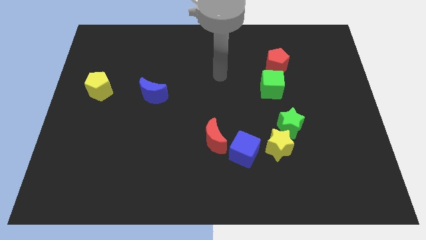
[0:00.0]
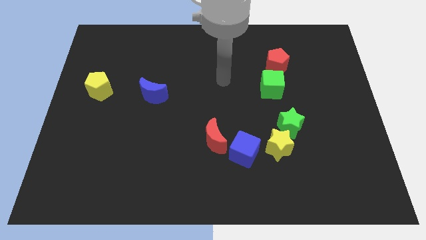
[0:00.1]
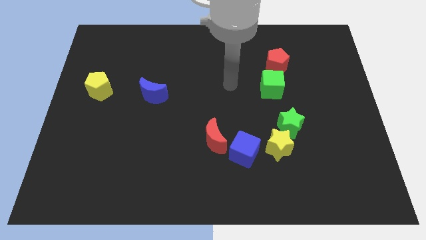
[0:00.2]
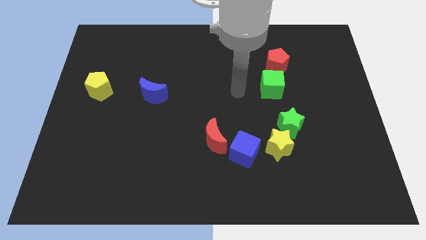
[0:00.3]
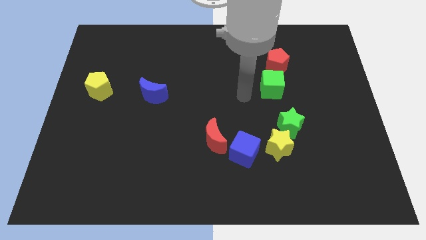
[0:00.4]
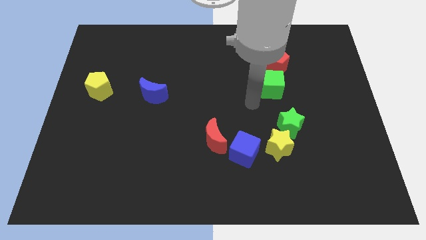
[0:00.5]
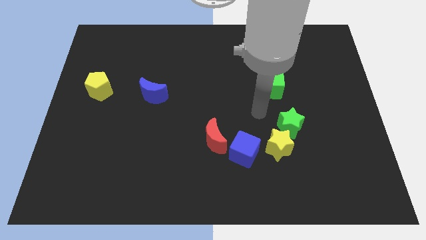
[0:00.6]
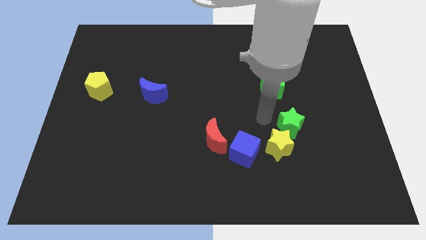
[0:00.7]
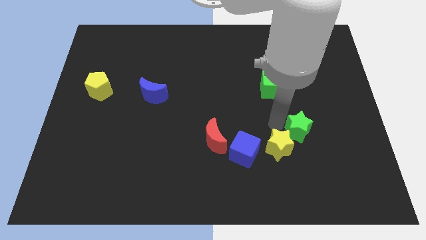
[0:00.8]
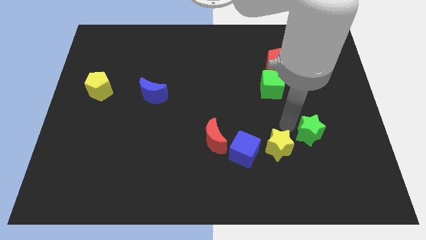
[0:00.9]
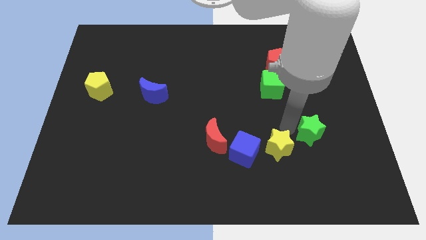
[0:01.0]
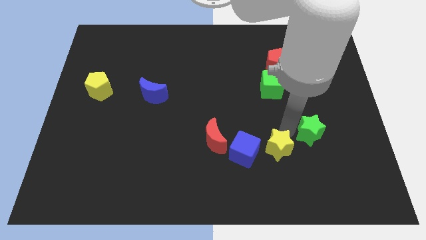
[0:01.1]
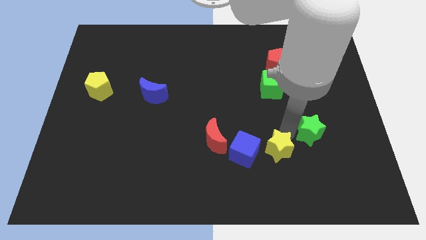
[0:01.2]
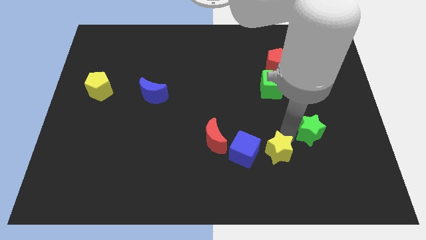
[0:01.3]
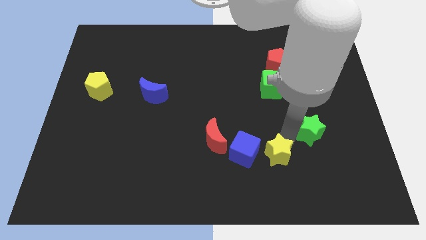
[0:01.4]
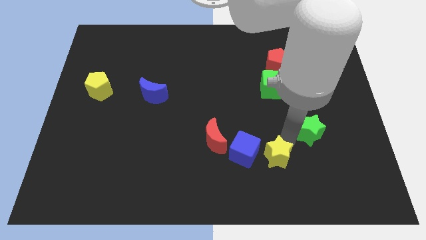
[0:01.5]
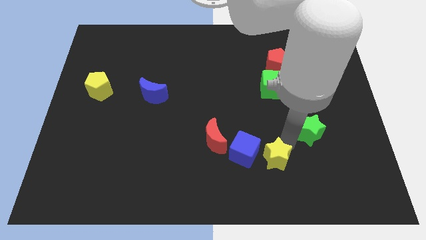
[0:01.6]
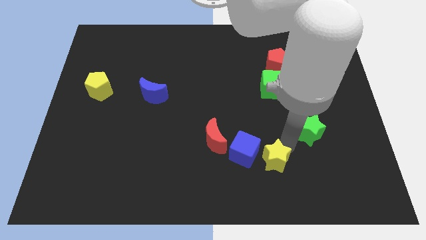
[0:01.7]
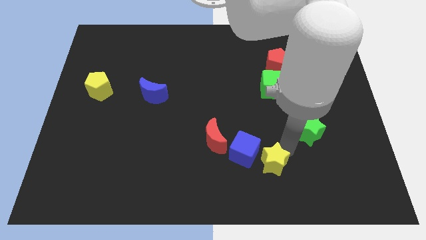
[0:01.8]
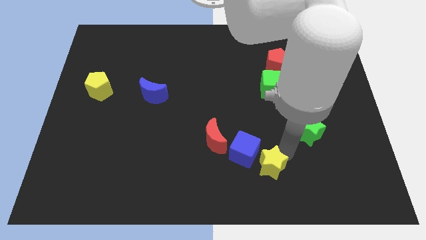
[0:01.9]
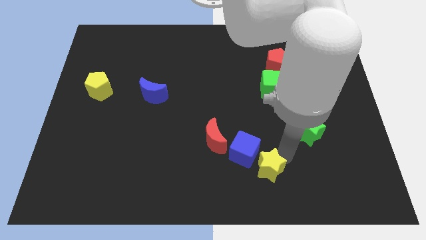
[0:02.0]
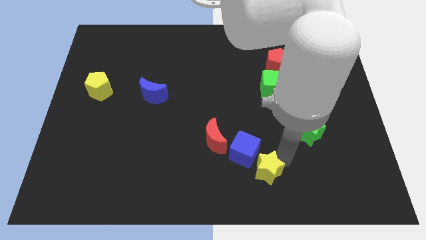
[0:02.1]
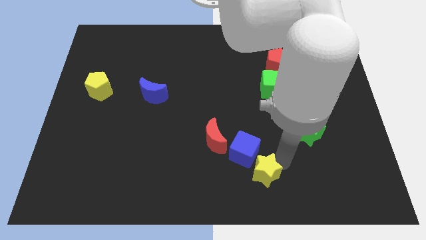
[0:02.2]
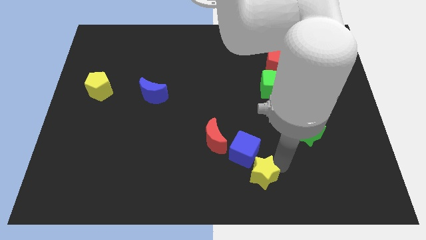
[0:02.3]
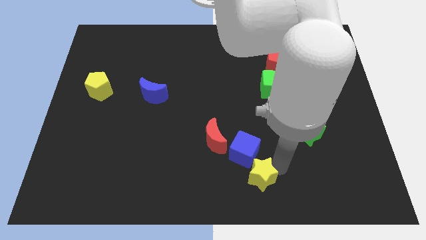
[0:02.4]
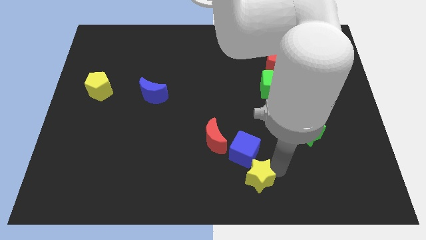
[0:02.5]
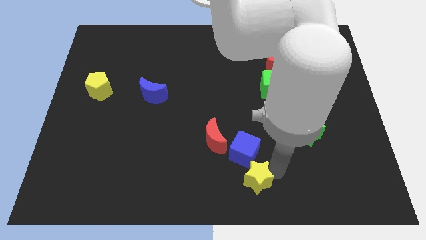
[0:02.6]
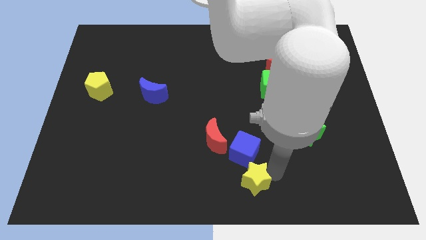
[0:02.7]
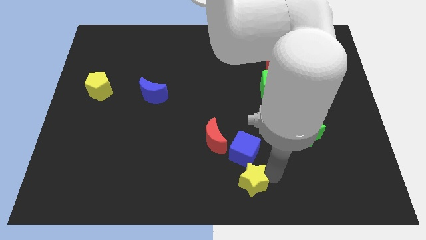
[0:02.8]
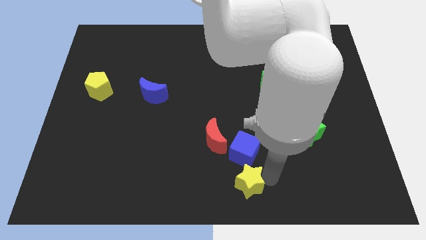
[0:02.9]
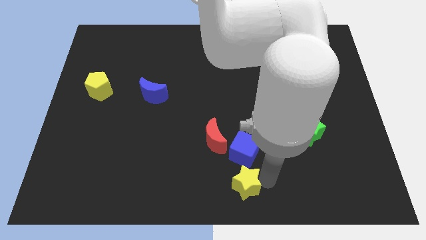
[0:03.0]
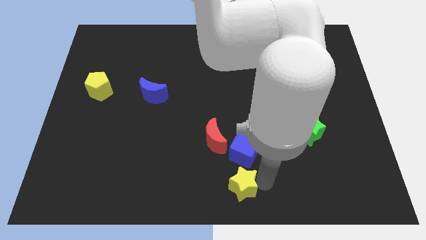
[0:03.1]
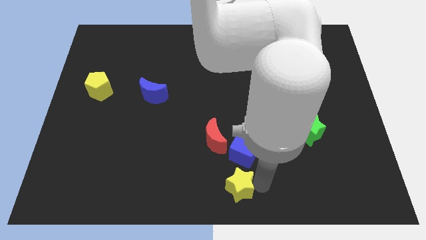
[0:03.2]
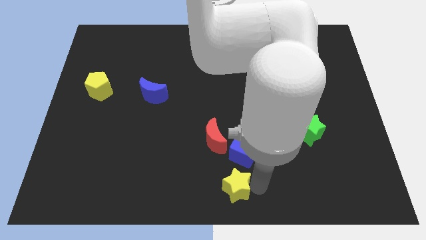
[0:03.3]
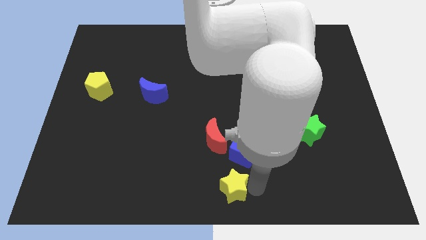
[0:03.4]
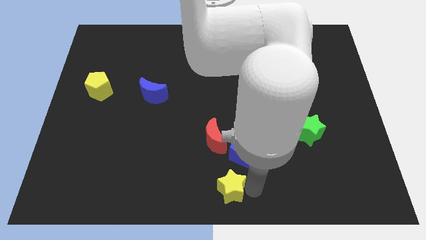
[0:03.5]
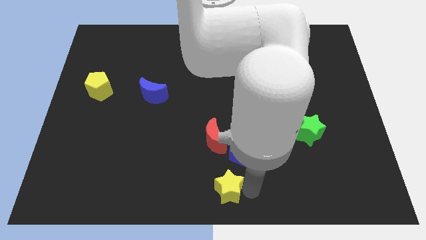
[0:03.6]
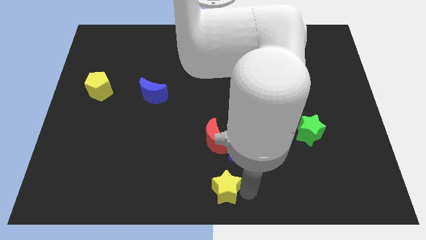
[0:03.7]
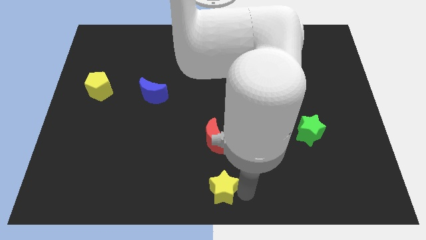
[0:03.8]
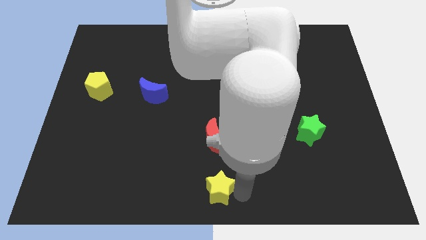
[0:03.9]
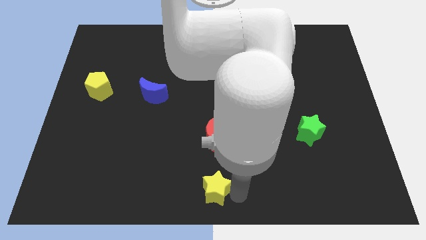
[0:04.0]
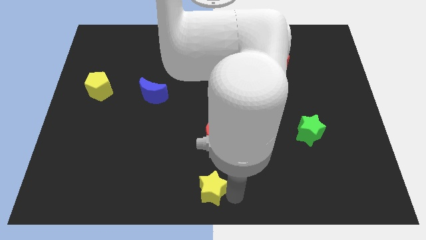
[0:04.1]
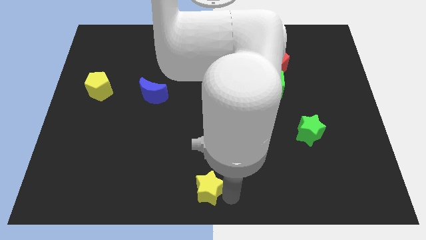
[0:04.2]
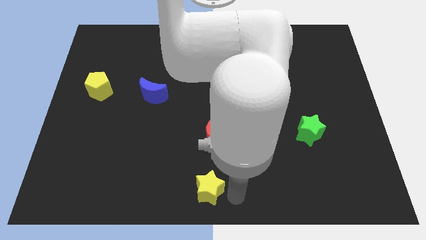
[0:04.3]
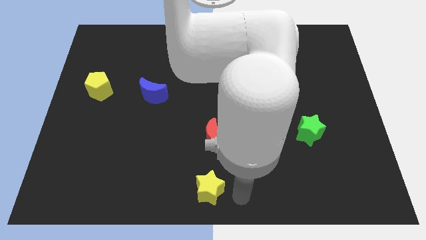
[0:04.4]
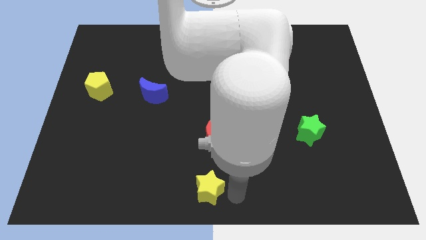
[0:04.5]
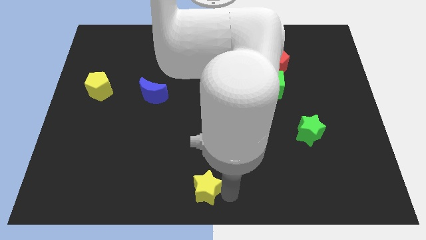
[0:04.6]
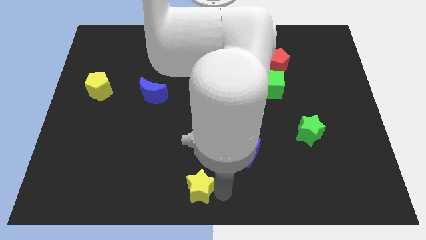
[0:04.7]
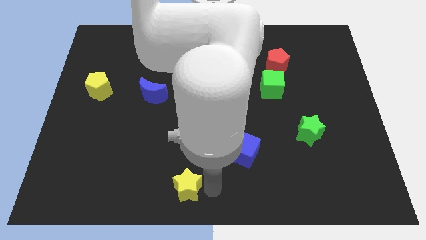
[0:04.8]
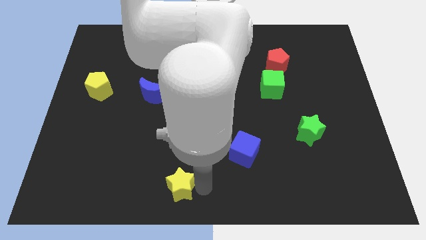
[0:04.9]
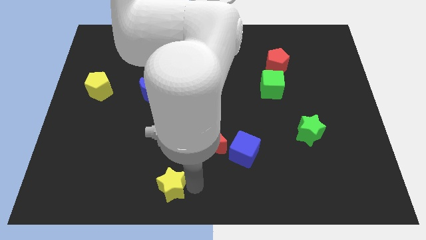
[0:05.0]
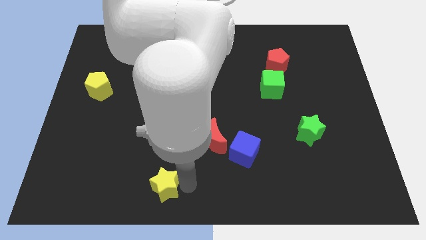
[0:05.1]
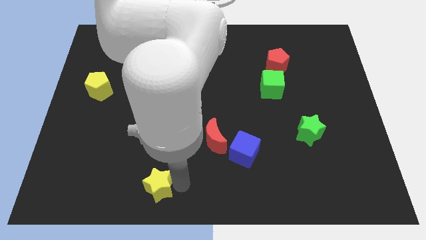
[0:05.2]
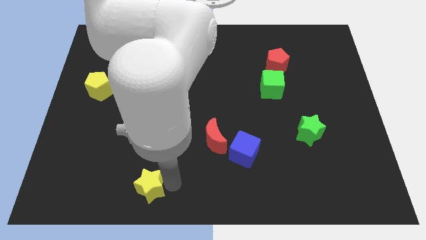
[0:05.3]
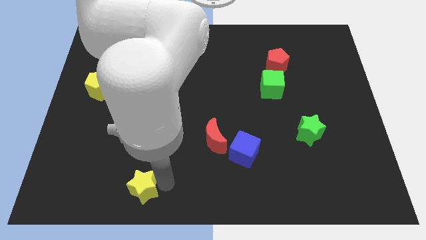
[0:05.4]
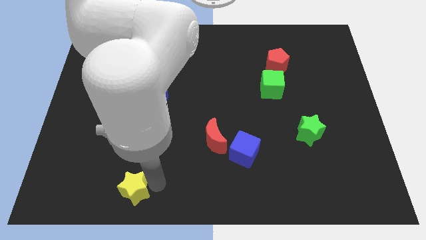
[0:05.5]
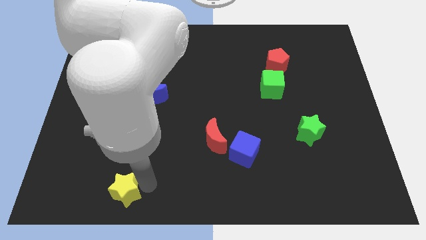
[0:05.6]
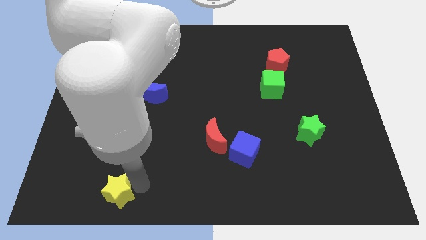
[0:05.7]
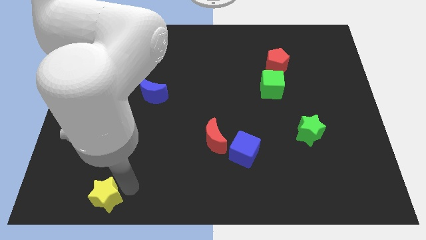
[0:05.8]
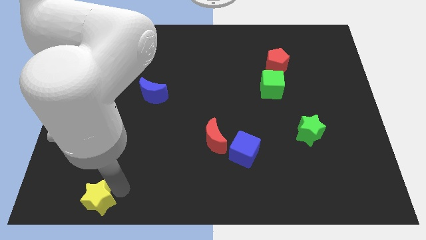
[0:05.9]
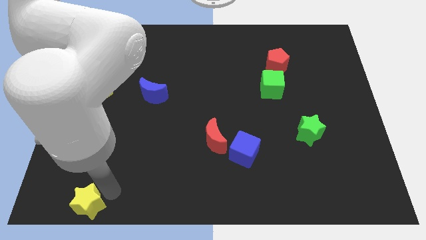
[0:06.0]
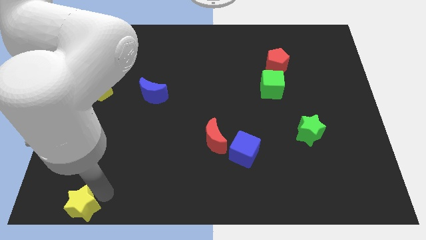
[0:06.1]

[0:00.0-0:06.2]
put the yellow star to the lower left corner
